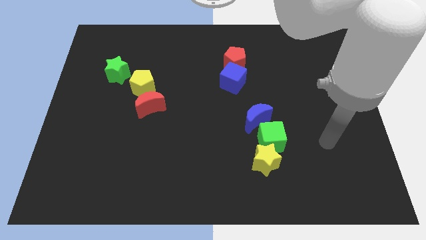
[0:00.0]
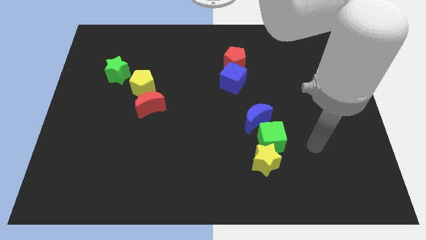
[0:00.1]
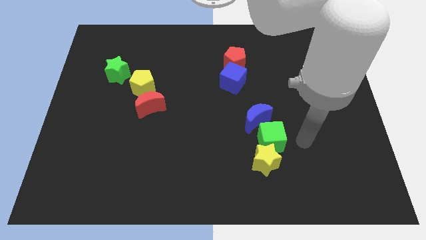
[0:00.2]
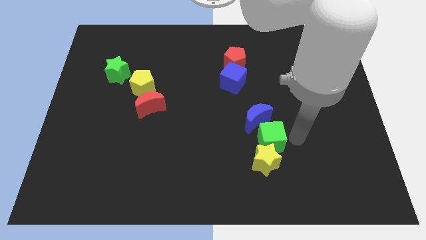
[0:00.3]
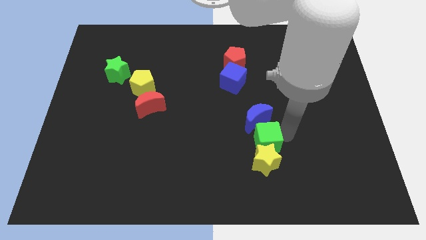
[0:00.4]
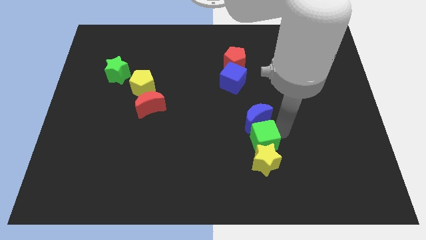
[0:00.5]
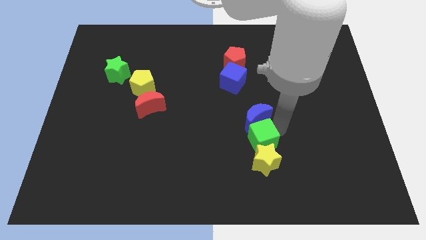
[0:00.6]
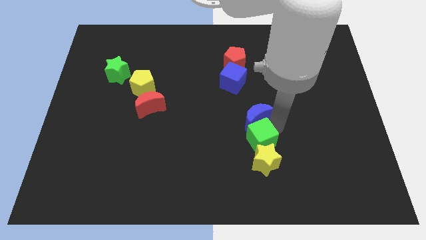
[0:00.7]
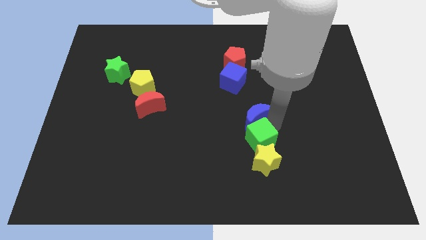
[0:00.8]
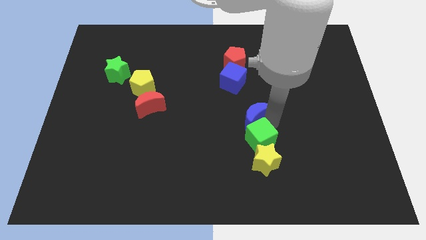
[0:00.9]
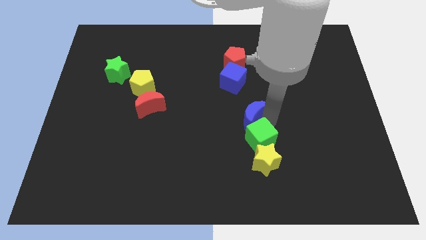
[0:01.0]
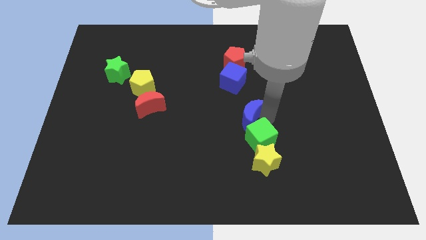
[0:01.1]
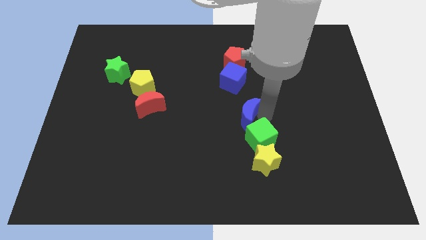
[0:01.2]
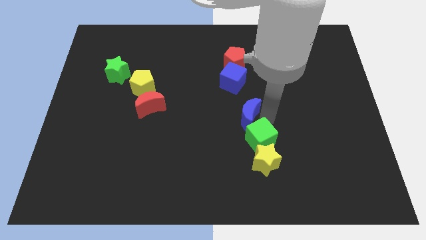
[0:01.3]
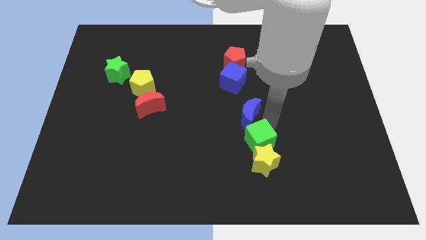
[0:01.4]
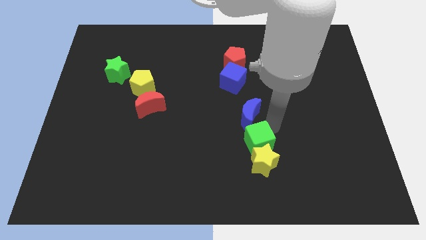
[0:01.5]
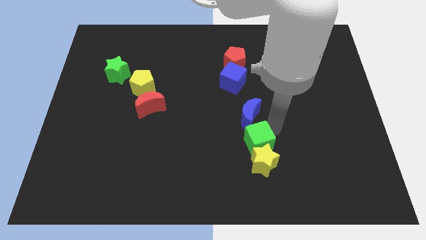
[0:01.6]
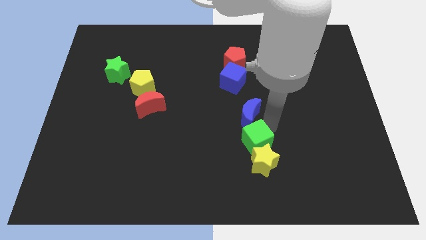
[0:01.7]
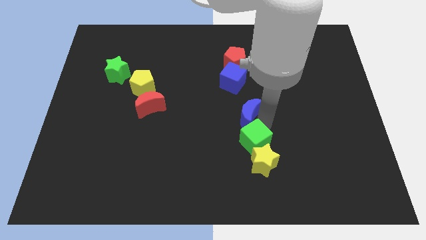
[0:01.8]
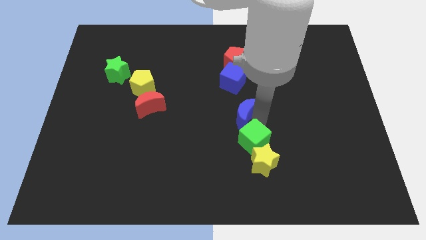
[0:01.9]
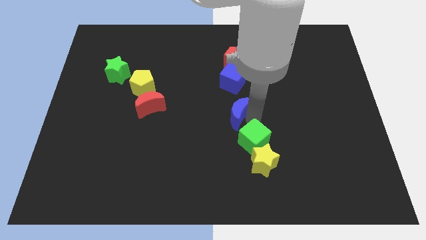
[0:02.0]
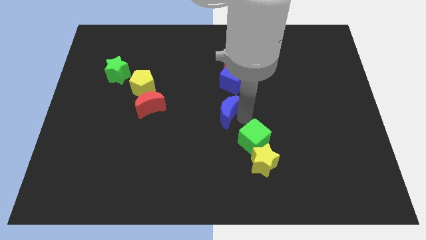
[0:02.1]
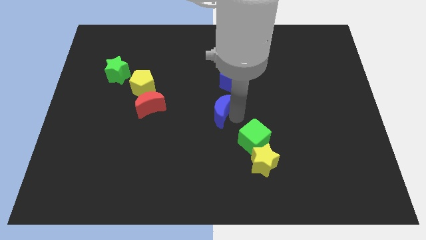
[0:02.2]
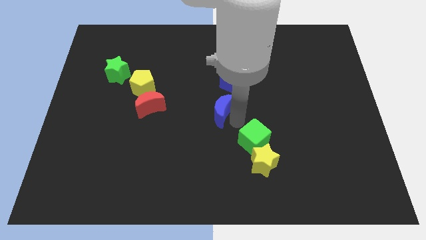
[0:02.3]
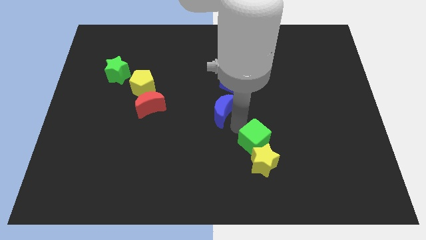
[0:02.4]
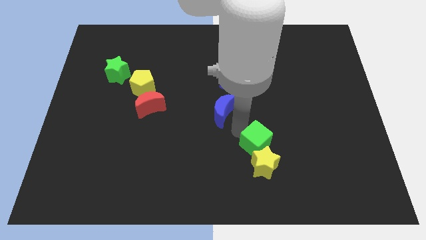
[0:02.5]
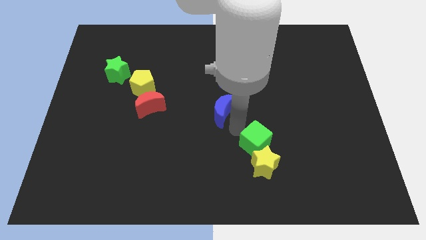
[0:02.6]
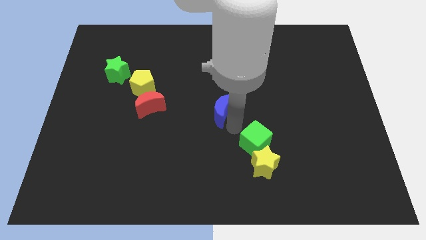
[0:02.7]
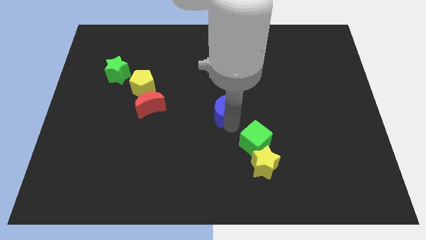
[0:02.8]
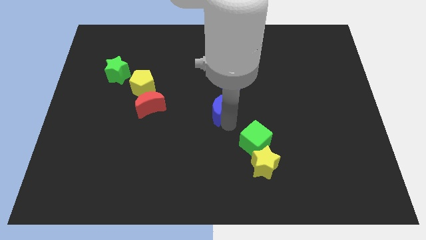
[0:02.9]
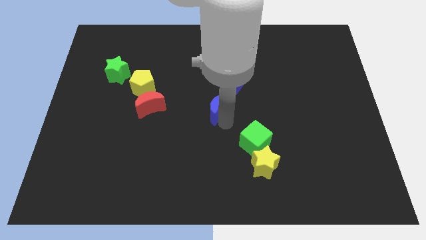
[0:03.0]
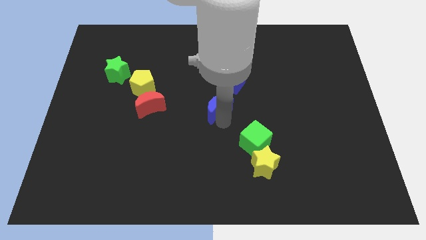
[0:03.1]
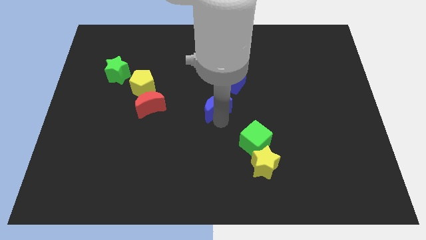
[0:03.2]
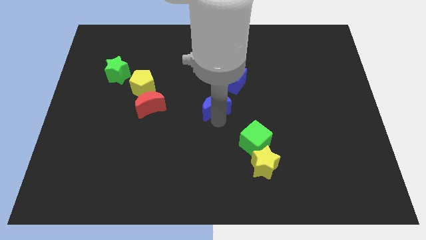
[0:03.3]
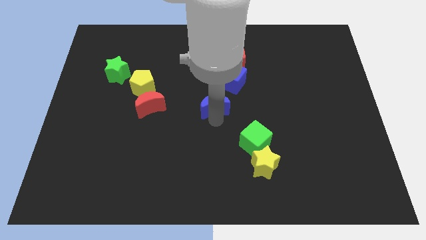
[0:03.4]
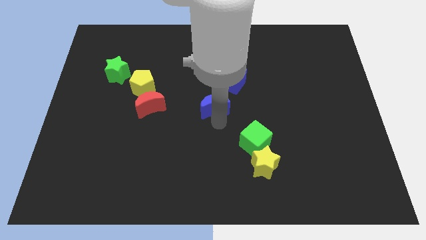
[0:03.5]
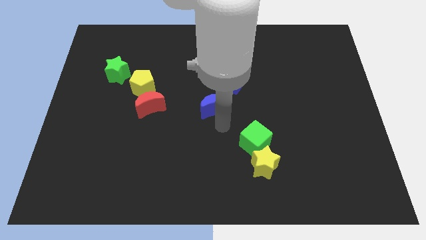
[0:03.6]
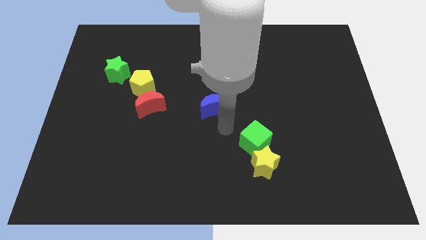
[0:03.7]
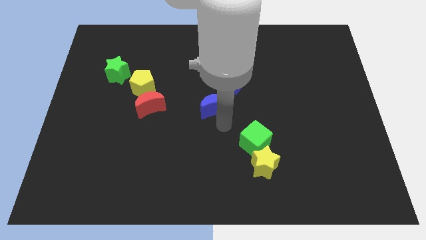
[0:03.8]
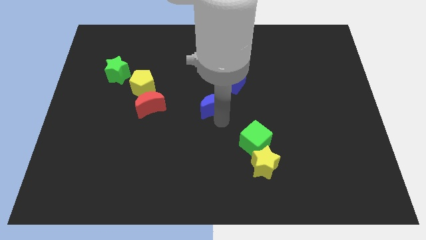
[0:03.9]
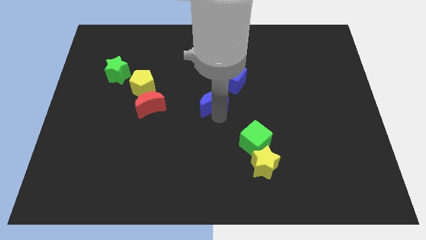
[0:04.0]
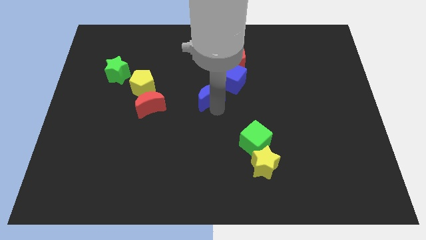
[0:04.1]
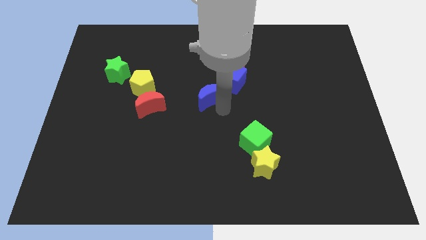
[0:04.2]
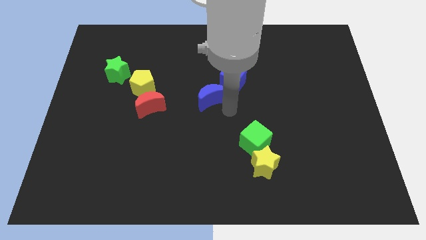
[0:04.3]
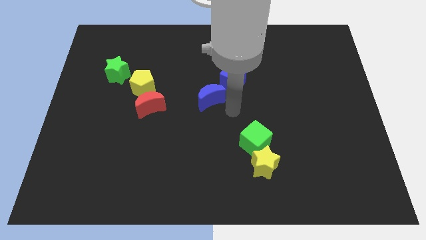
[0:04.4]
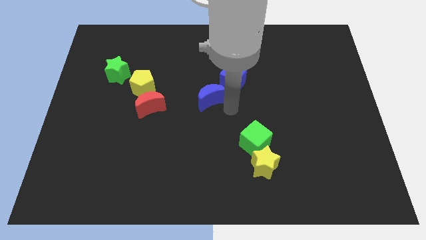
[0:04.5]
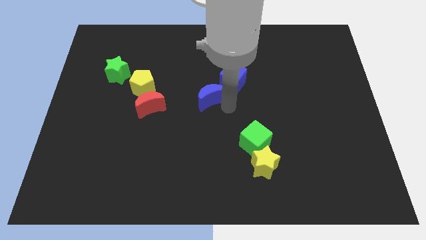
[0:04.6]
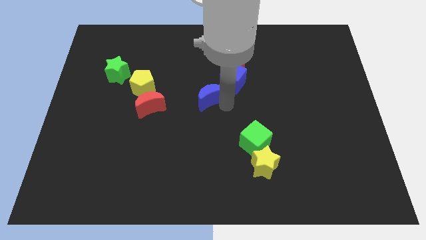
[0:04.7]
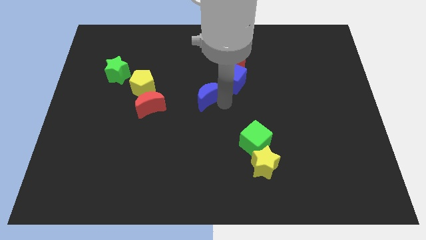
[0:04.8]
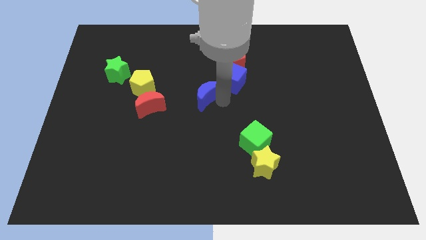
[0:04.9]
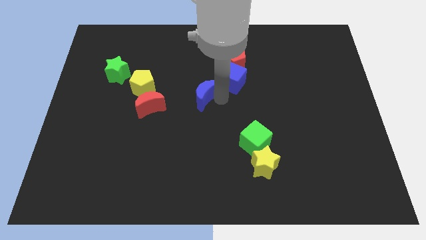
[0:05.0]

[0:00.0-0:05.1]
push the blue moon just right of the yellow pentagon
